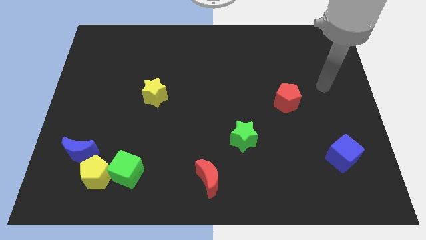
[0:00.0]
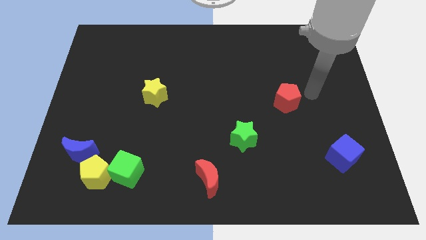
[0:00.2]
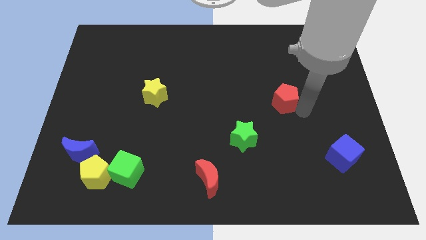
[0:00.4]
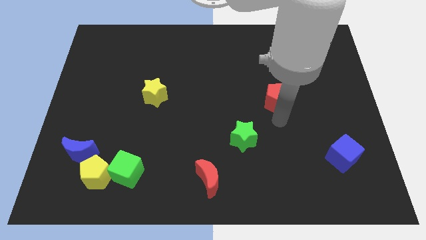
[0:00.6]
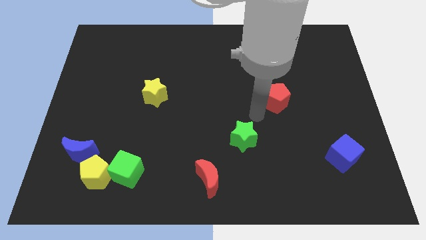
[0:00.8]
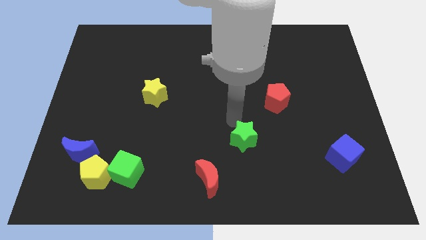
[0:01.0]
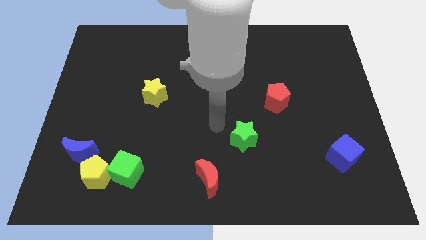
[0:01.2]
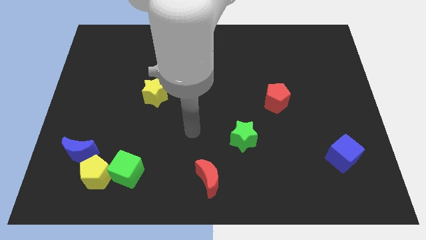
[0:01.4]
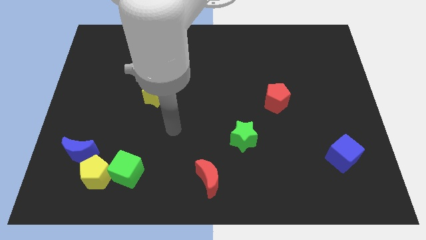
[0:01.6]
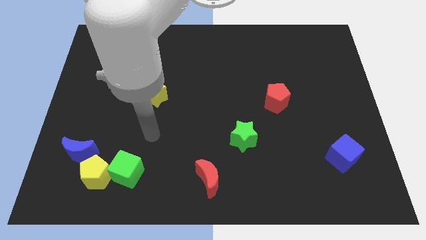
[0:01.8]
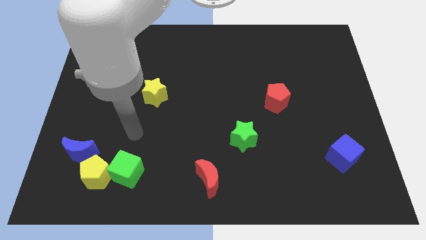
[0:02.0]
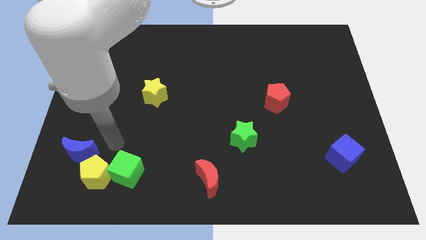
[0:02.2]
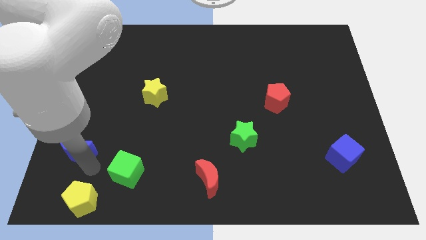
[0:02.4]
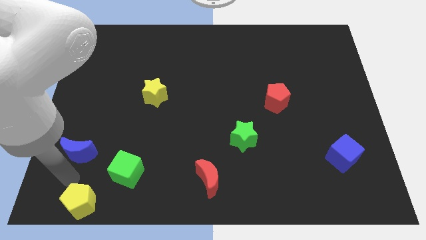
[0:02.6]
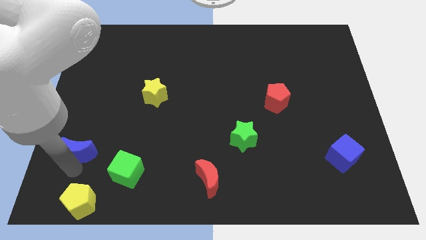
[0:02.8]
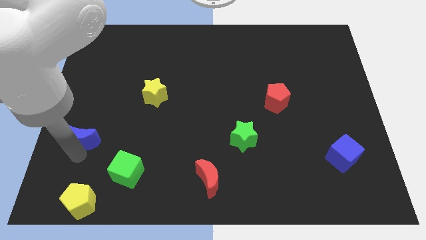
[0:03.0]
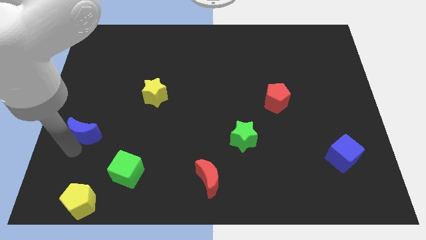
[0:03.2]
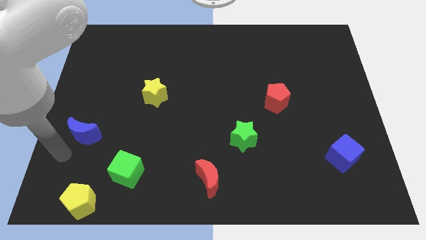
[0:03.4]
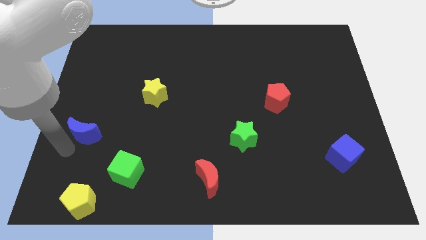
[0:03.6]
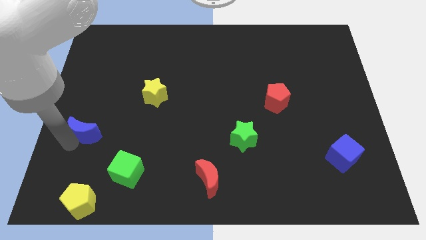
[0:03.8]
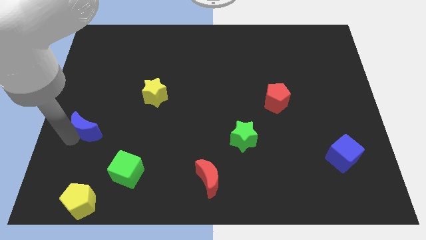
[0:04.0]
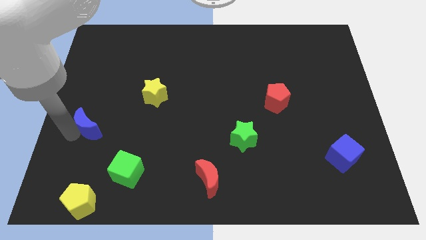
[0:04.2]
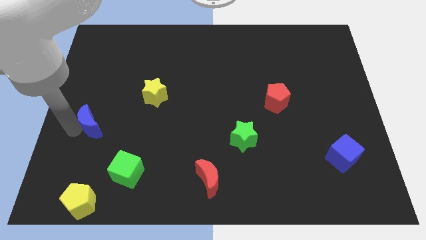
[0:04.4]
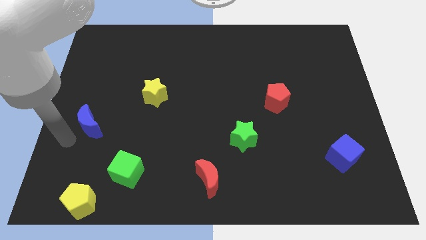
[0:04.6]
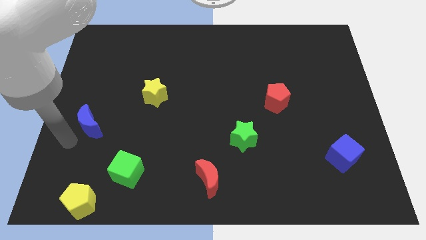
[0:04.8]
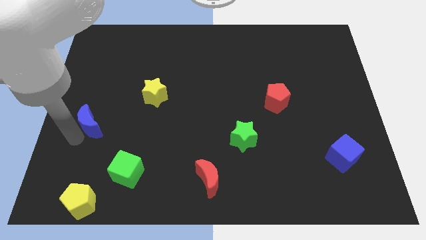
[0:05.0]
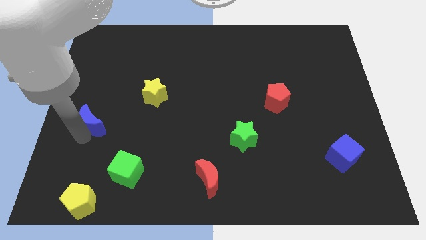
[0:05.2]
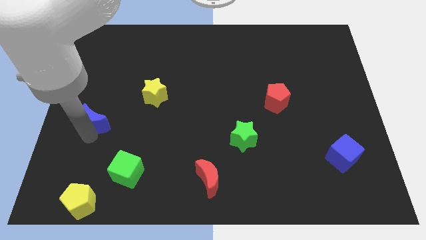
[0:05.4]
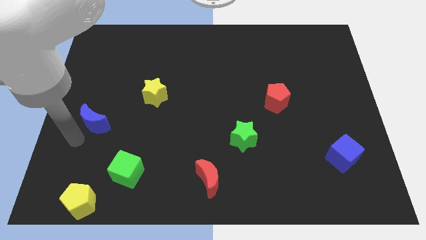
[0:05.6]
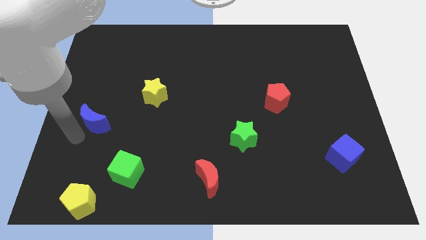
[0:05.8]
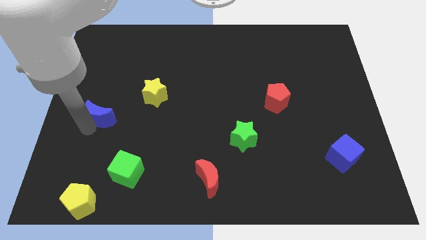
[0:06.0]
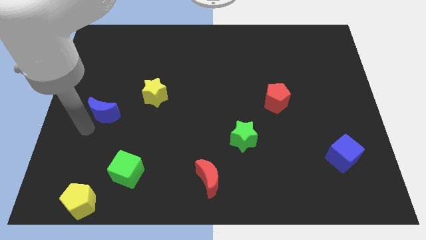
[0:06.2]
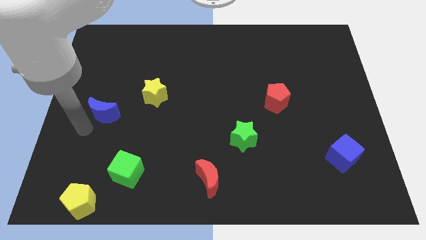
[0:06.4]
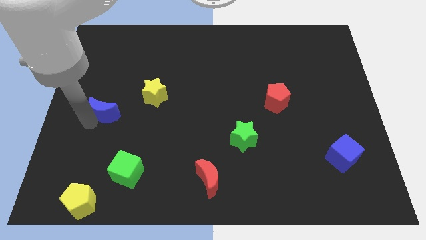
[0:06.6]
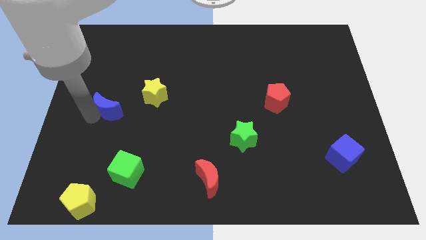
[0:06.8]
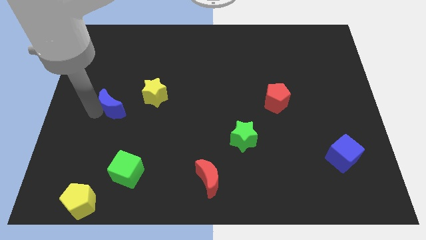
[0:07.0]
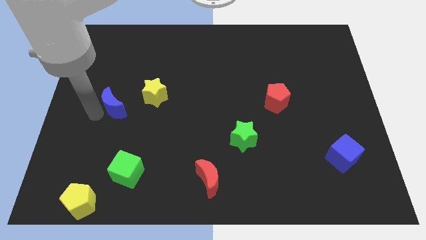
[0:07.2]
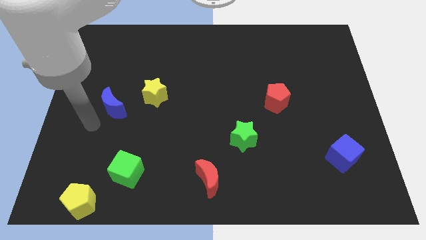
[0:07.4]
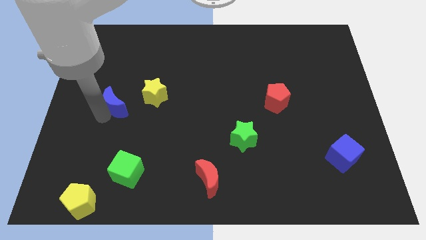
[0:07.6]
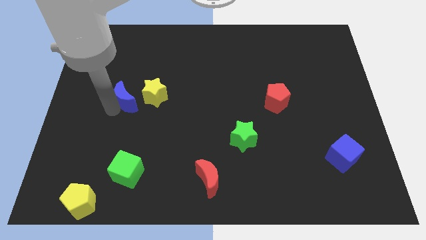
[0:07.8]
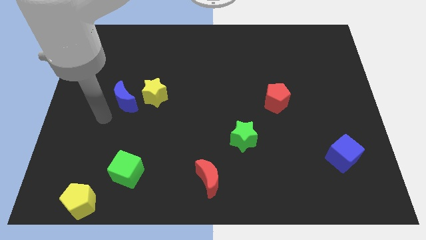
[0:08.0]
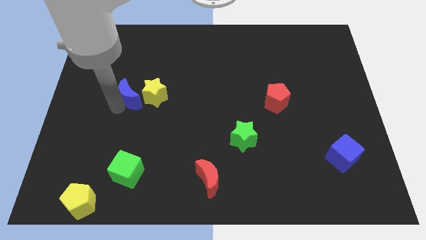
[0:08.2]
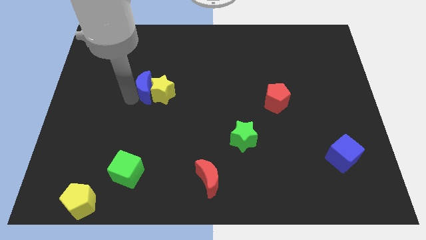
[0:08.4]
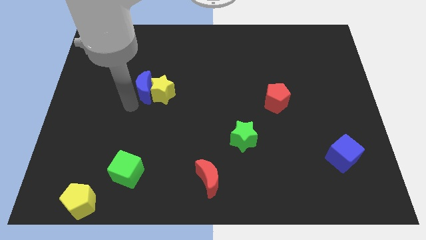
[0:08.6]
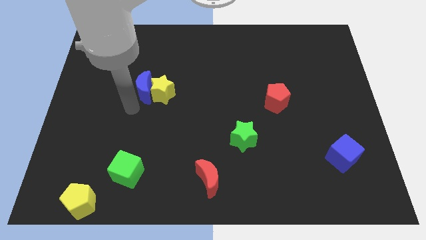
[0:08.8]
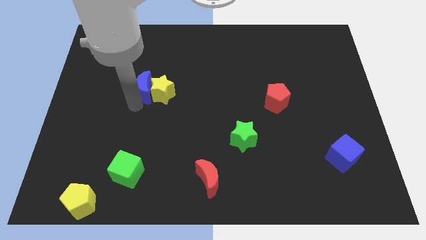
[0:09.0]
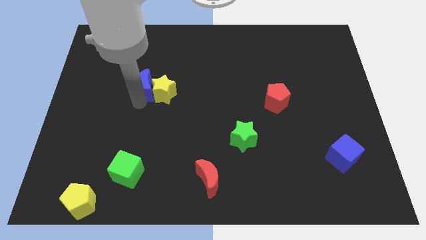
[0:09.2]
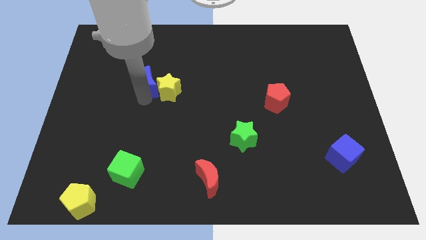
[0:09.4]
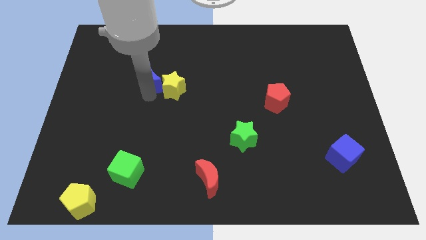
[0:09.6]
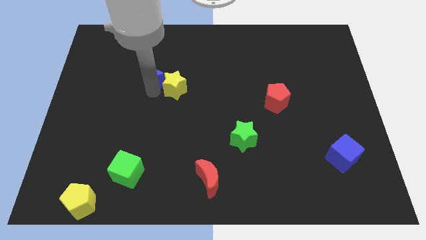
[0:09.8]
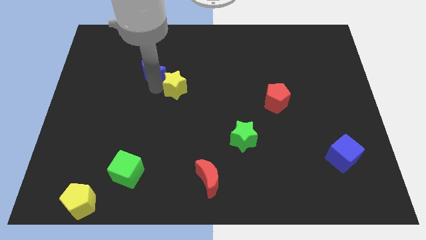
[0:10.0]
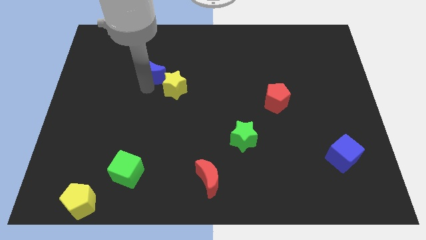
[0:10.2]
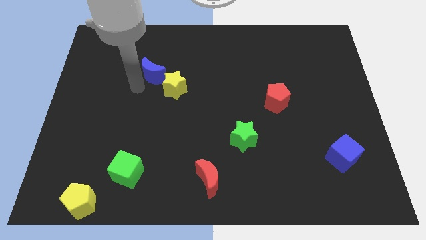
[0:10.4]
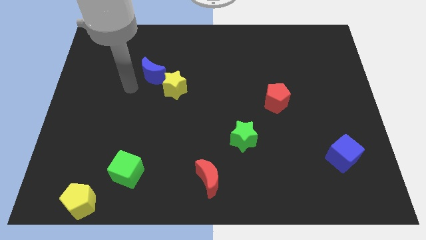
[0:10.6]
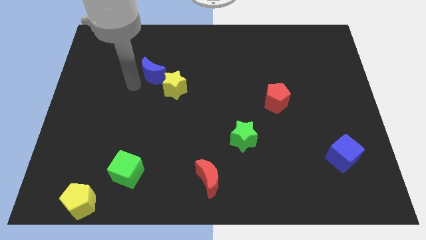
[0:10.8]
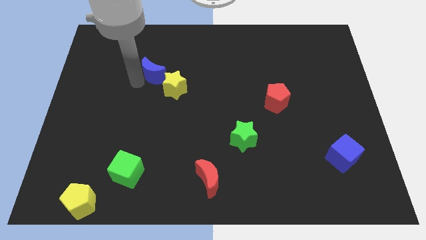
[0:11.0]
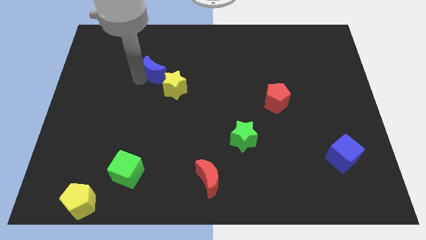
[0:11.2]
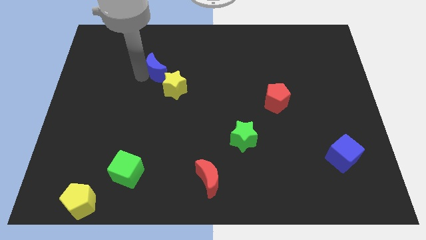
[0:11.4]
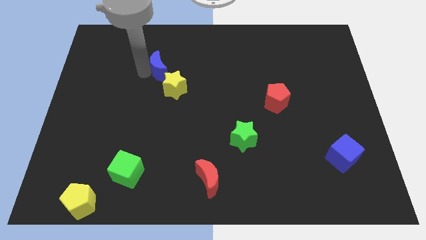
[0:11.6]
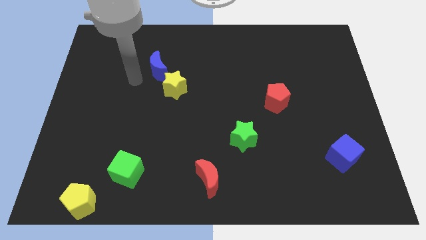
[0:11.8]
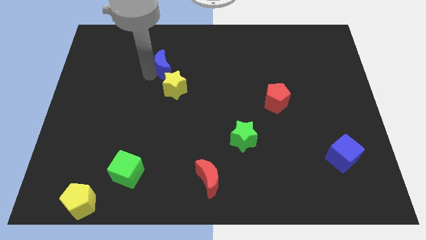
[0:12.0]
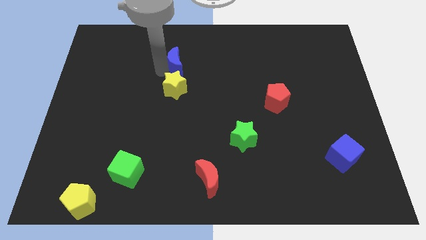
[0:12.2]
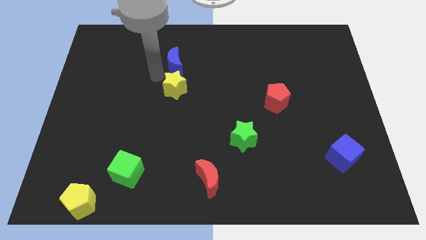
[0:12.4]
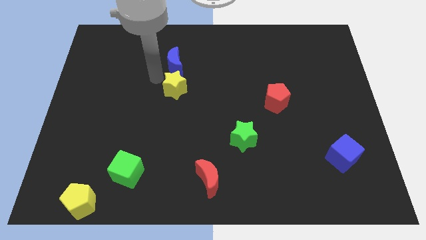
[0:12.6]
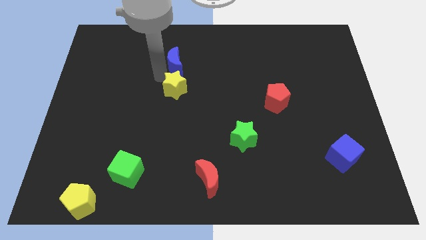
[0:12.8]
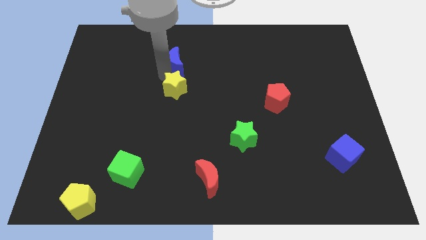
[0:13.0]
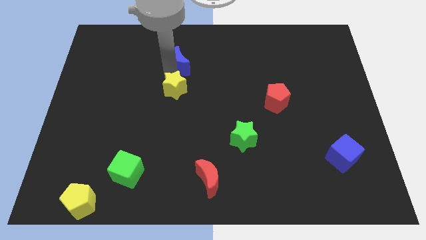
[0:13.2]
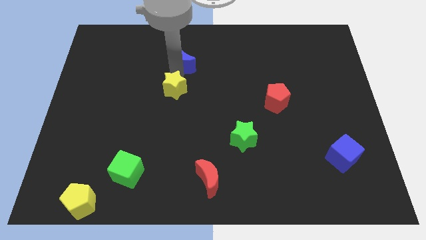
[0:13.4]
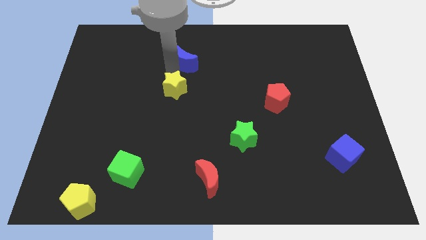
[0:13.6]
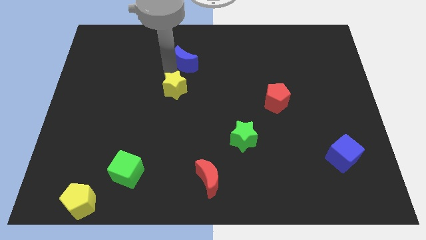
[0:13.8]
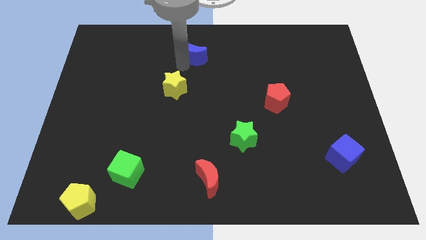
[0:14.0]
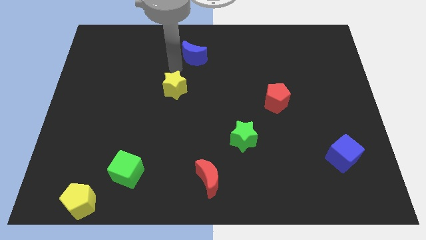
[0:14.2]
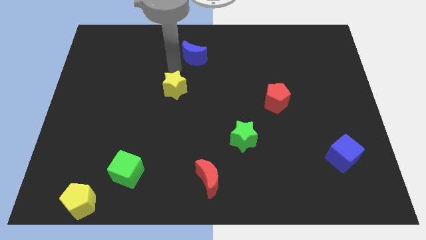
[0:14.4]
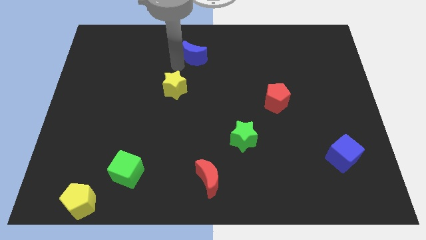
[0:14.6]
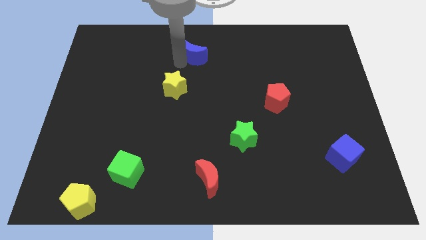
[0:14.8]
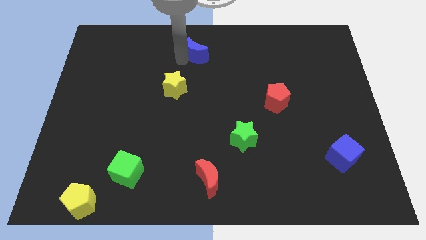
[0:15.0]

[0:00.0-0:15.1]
push the blue moon to the top
